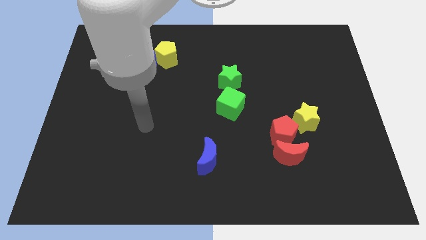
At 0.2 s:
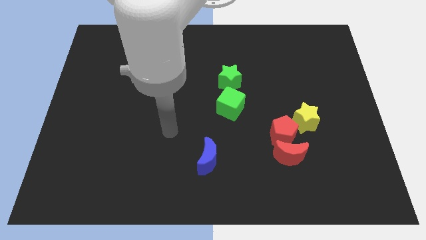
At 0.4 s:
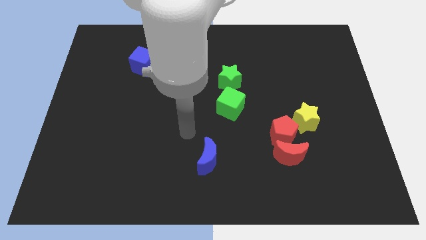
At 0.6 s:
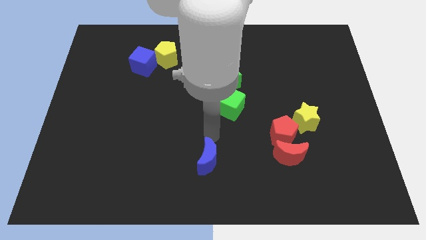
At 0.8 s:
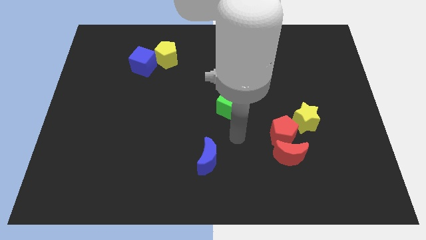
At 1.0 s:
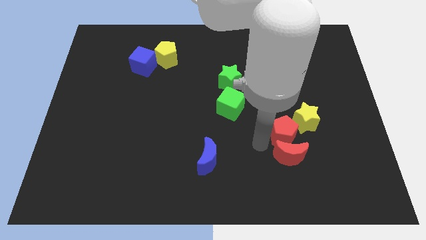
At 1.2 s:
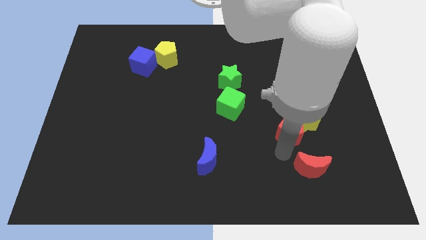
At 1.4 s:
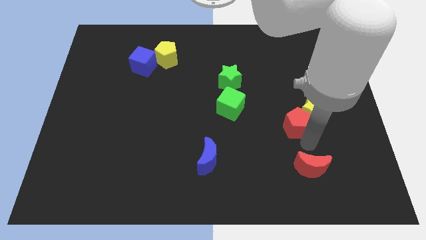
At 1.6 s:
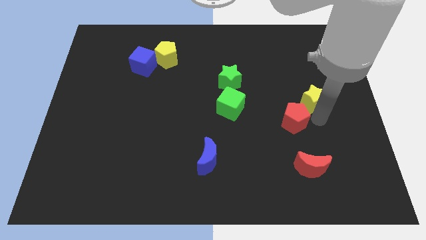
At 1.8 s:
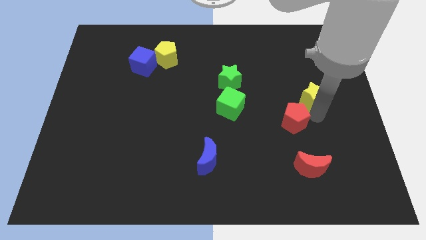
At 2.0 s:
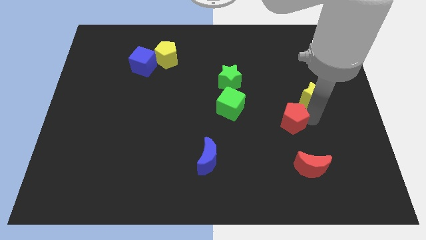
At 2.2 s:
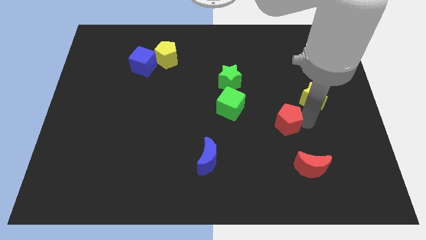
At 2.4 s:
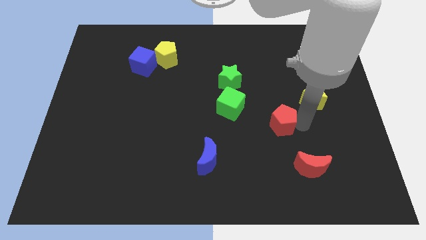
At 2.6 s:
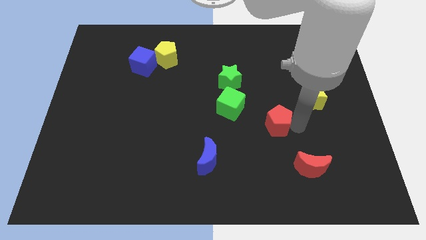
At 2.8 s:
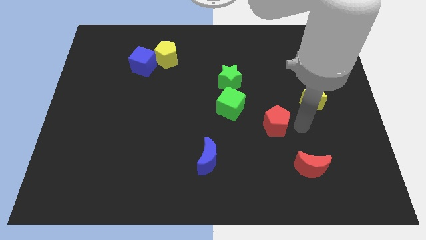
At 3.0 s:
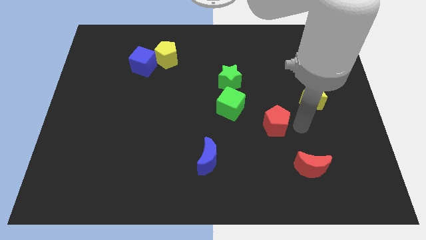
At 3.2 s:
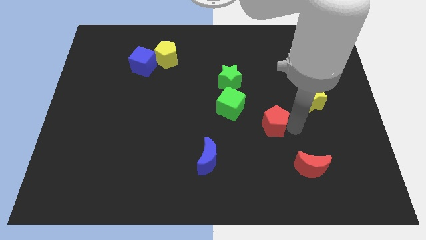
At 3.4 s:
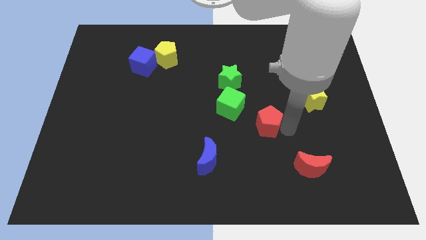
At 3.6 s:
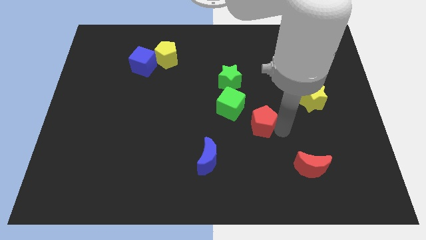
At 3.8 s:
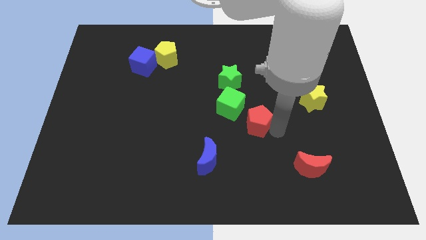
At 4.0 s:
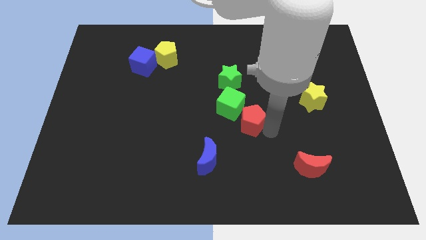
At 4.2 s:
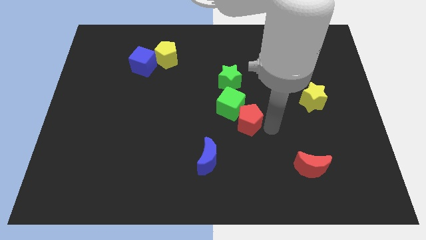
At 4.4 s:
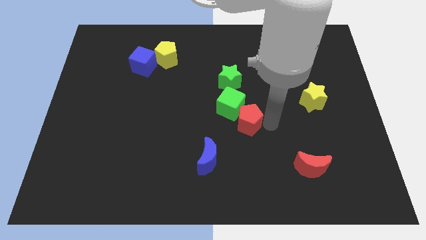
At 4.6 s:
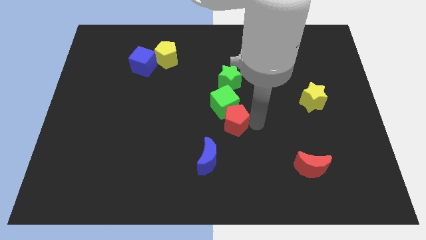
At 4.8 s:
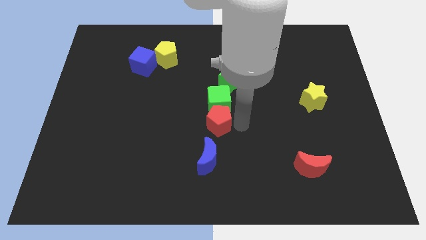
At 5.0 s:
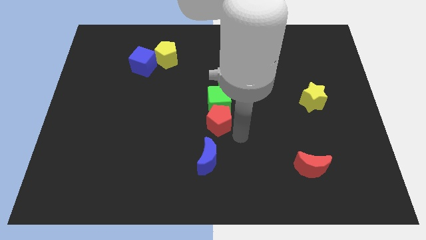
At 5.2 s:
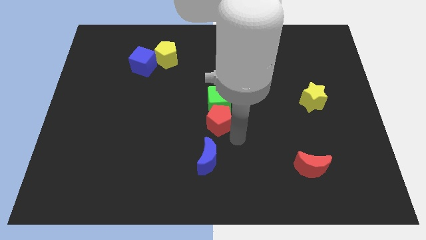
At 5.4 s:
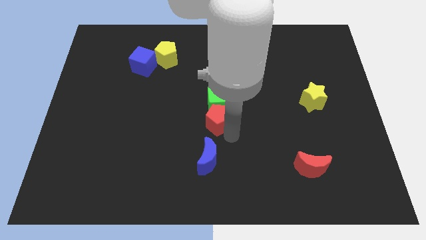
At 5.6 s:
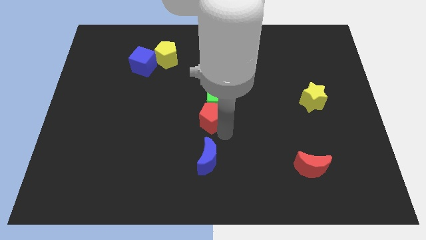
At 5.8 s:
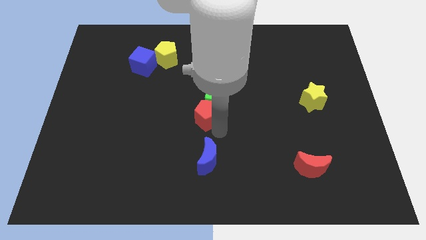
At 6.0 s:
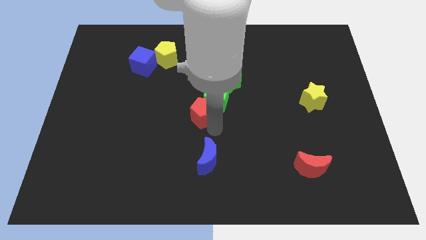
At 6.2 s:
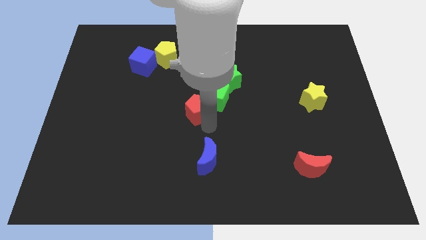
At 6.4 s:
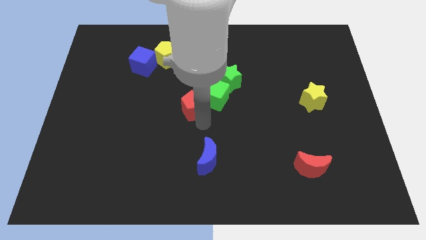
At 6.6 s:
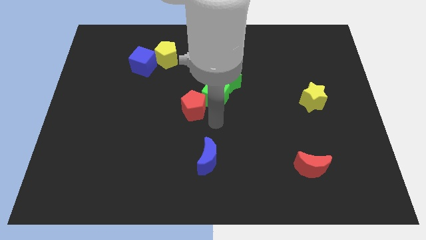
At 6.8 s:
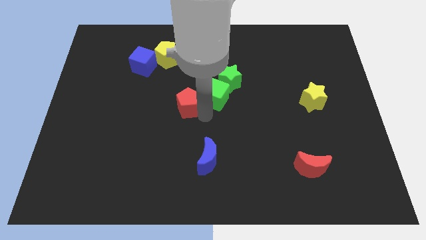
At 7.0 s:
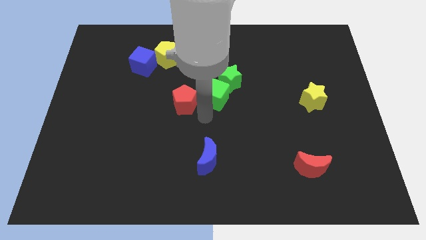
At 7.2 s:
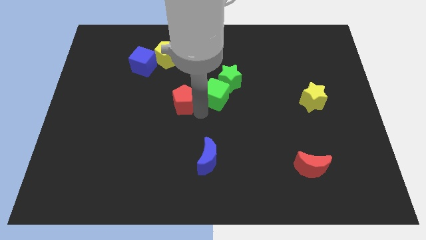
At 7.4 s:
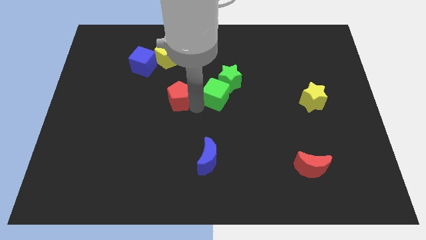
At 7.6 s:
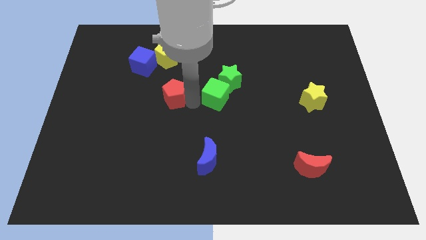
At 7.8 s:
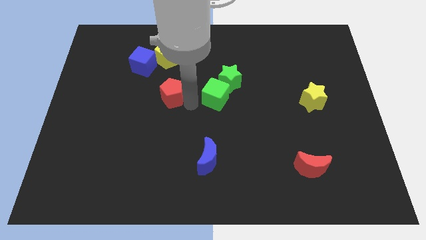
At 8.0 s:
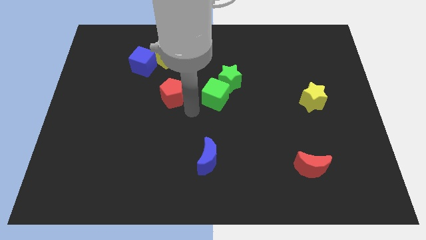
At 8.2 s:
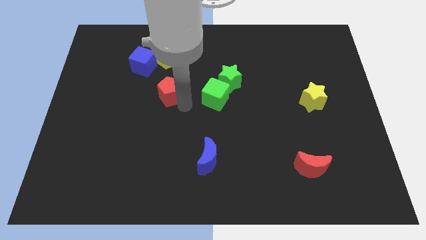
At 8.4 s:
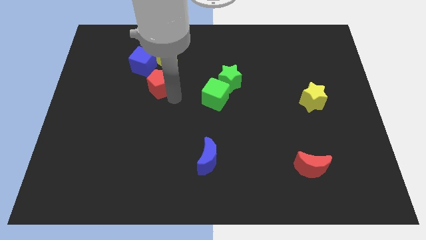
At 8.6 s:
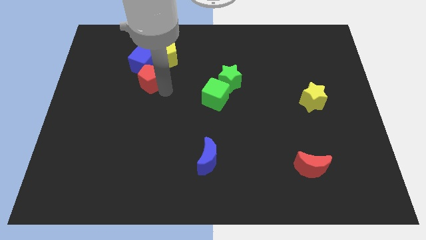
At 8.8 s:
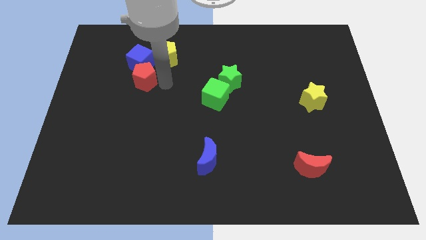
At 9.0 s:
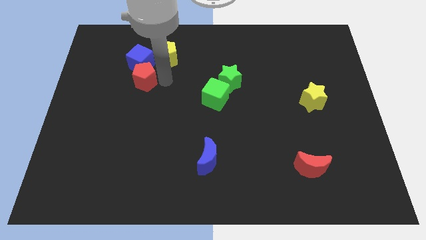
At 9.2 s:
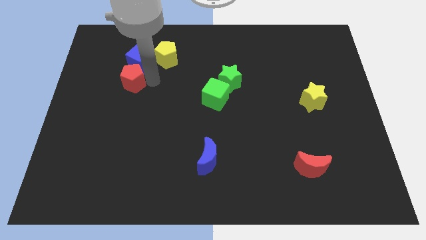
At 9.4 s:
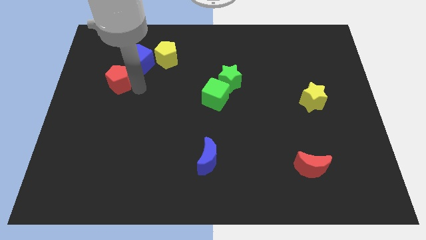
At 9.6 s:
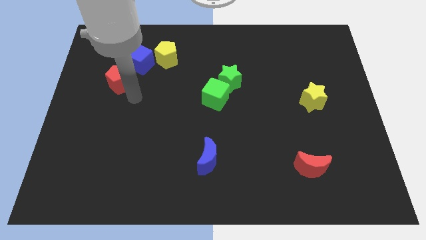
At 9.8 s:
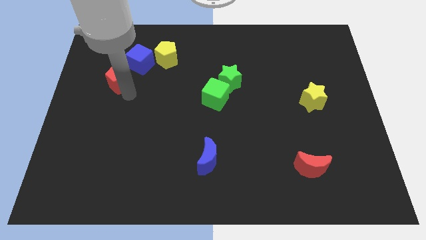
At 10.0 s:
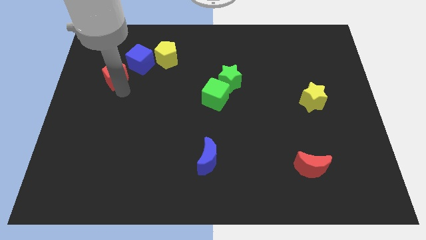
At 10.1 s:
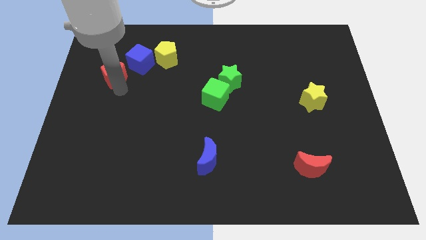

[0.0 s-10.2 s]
push the red pentagon to the left side of the blue cube

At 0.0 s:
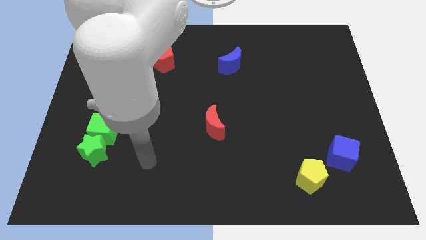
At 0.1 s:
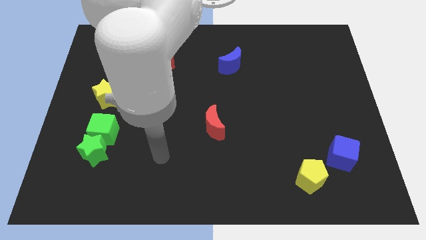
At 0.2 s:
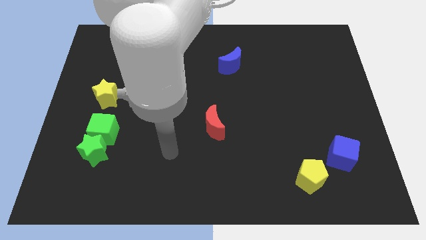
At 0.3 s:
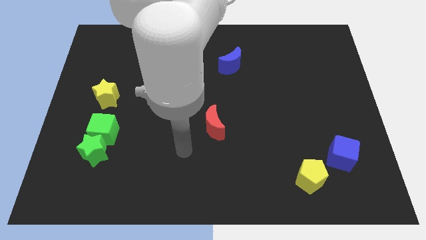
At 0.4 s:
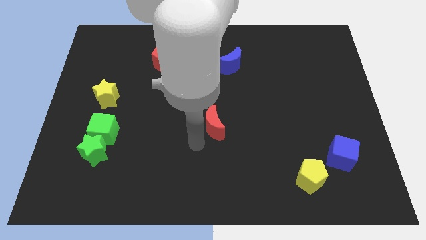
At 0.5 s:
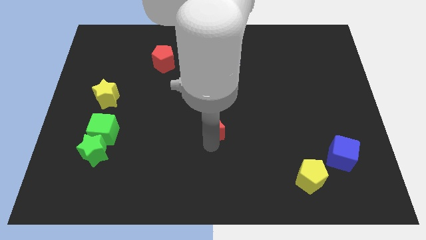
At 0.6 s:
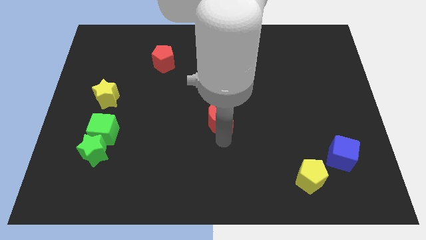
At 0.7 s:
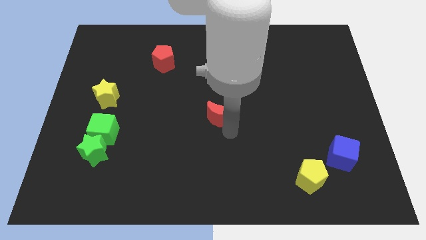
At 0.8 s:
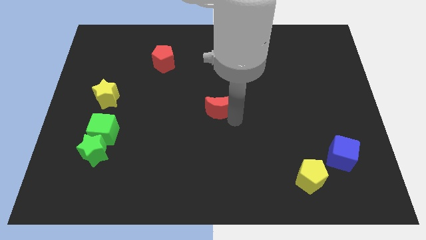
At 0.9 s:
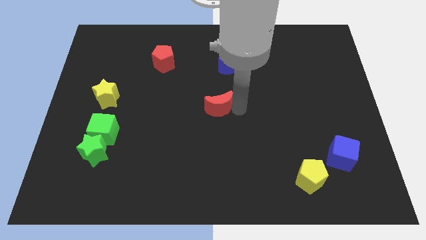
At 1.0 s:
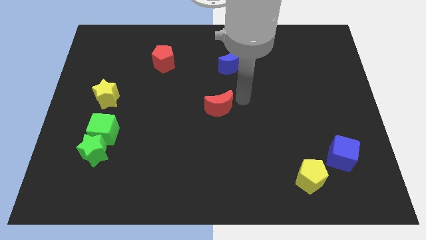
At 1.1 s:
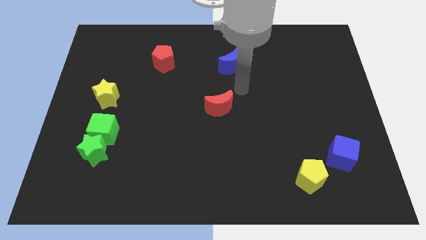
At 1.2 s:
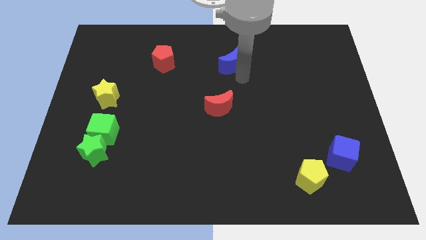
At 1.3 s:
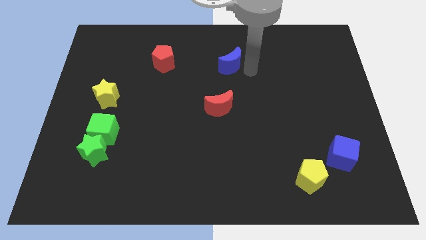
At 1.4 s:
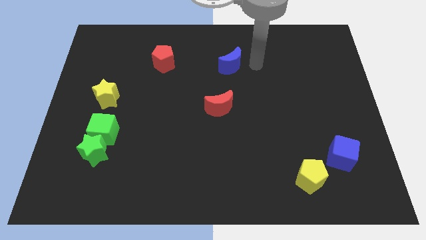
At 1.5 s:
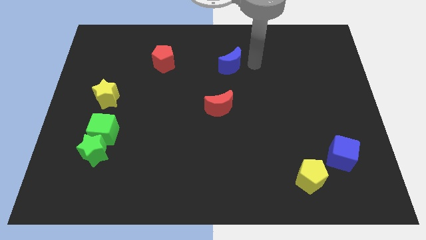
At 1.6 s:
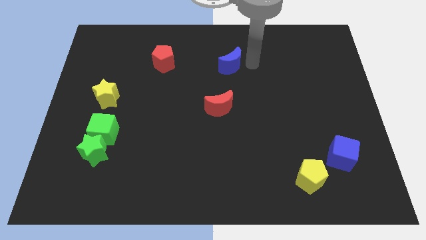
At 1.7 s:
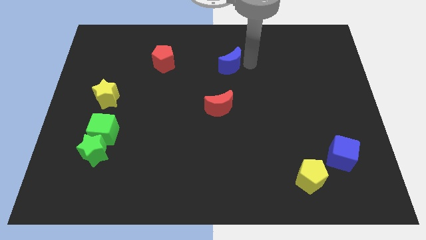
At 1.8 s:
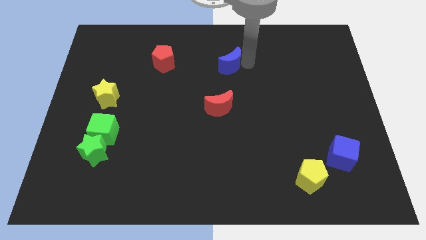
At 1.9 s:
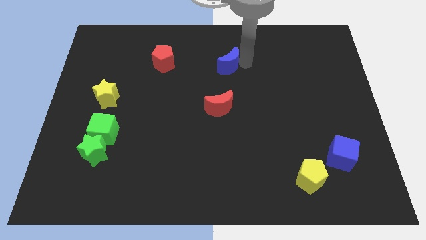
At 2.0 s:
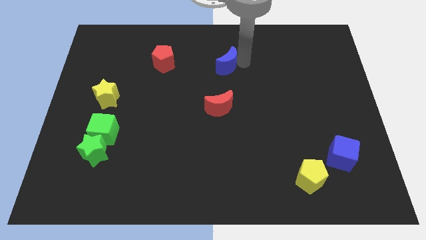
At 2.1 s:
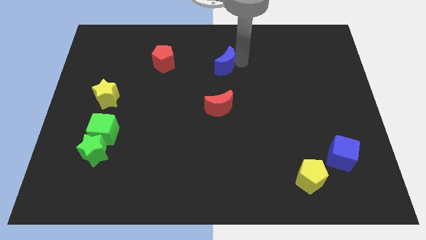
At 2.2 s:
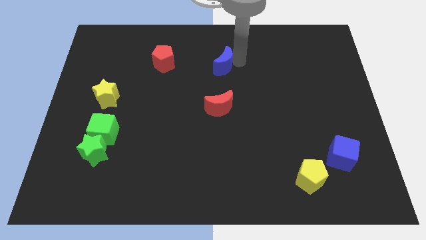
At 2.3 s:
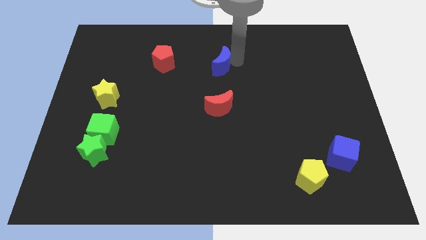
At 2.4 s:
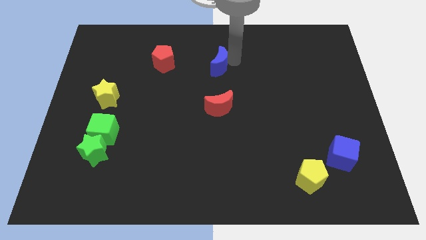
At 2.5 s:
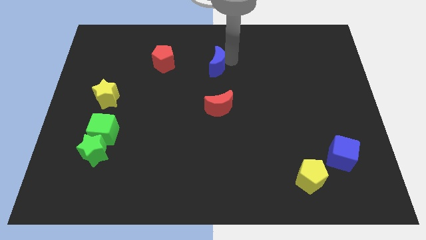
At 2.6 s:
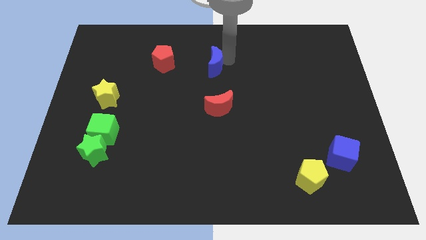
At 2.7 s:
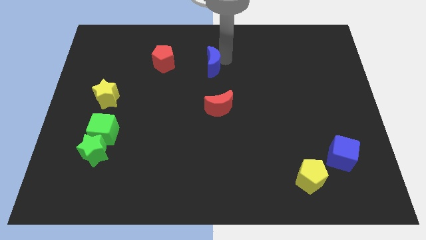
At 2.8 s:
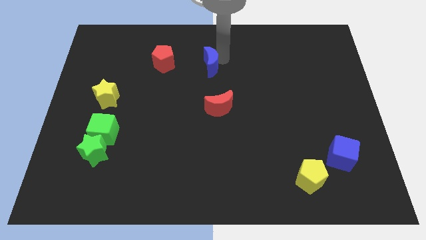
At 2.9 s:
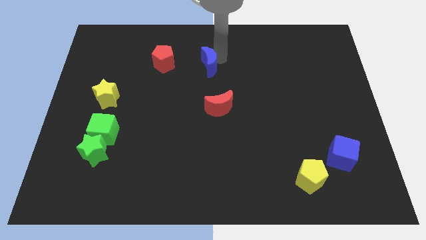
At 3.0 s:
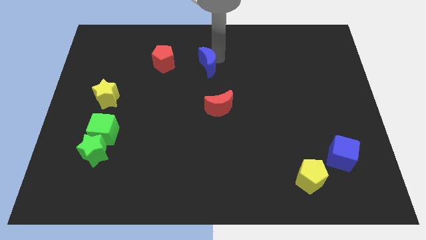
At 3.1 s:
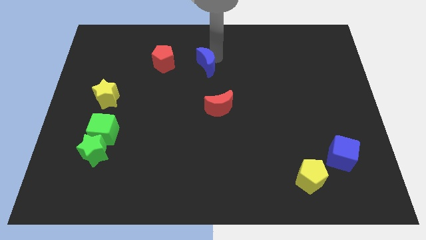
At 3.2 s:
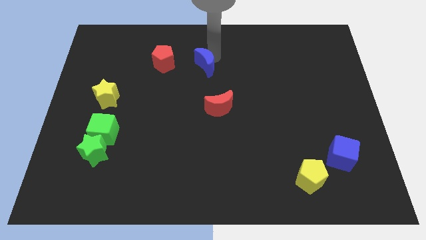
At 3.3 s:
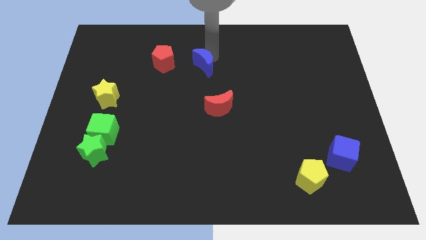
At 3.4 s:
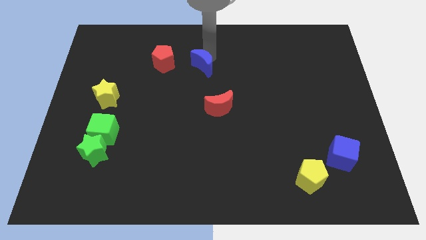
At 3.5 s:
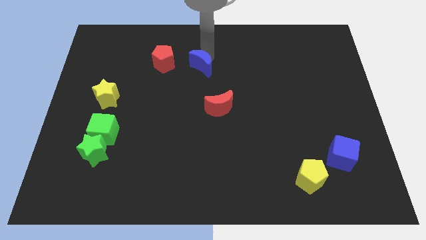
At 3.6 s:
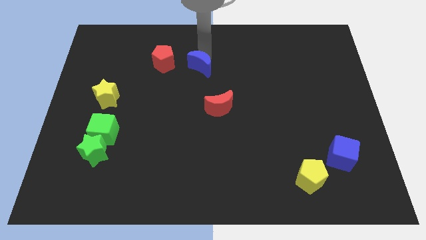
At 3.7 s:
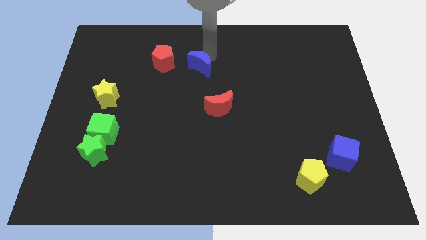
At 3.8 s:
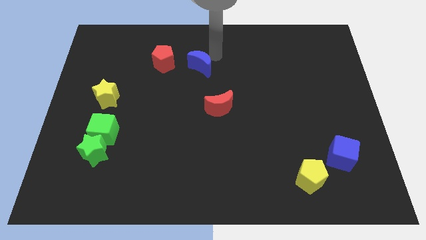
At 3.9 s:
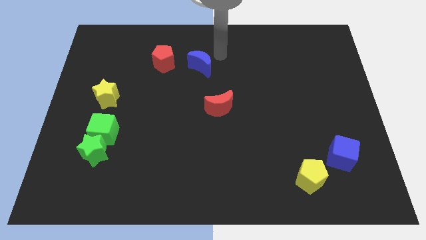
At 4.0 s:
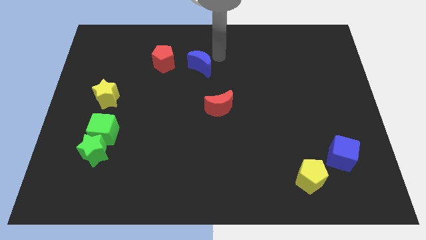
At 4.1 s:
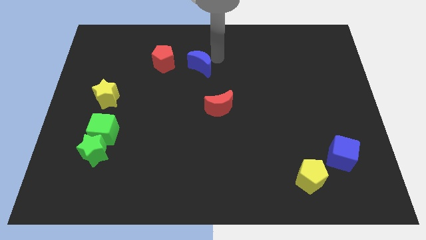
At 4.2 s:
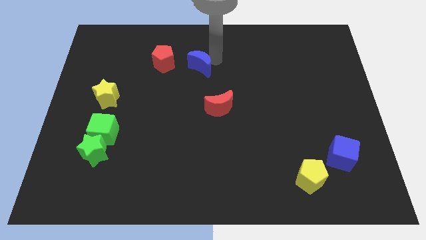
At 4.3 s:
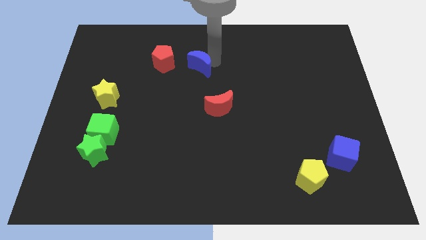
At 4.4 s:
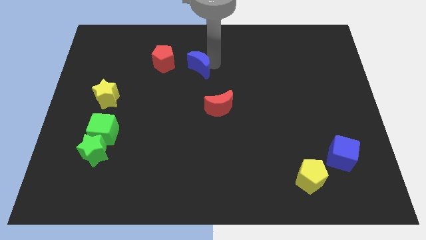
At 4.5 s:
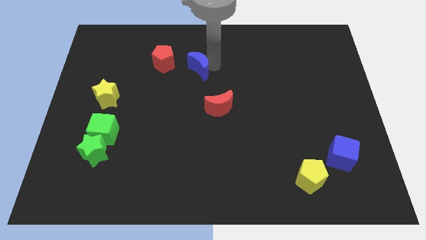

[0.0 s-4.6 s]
push the blue moon to the bottom right side of the red pentagon
